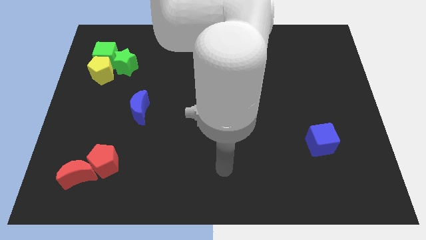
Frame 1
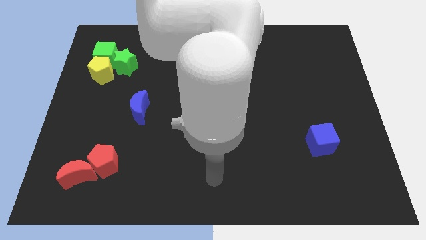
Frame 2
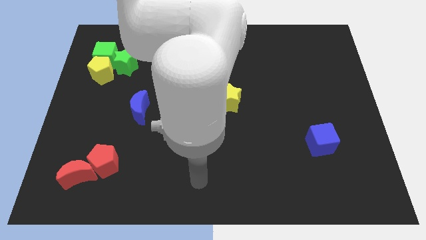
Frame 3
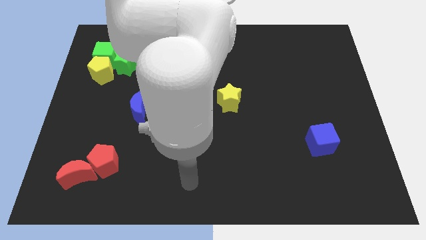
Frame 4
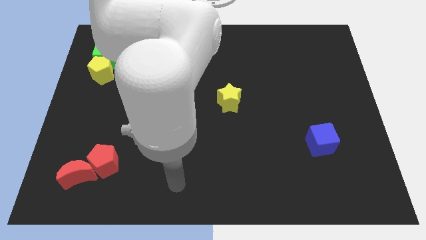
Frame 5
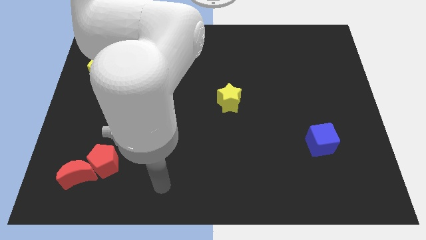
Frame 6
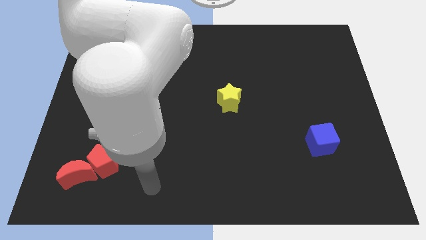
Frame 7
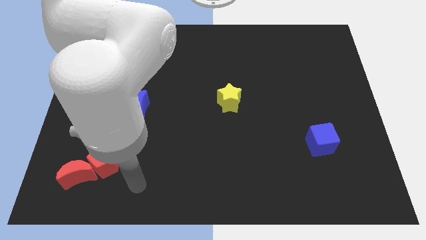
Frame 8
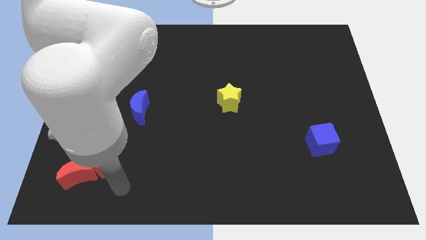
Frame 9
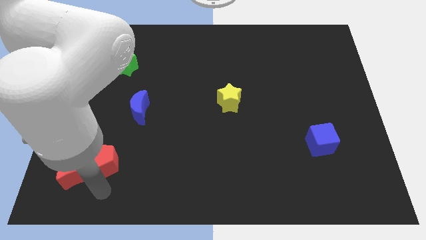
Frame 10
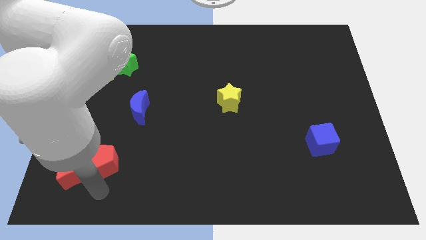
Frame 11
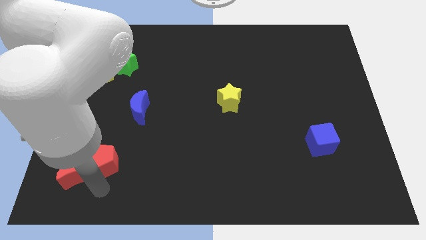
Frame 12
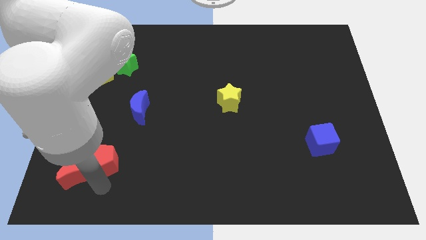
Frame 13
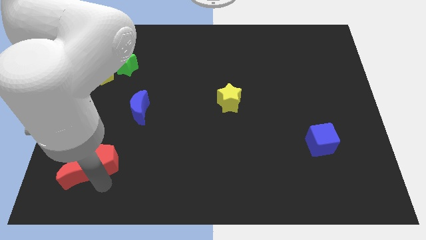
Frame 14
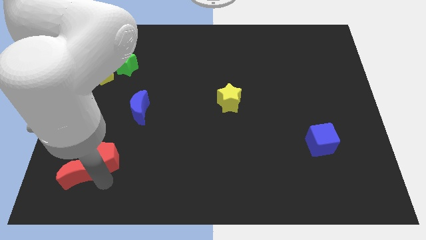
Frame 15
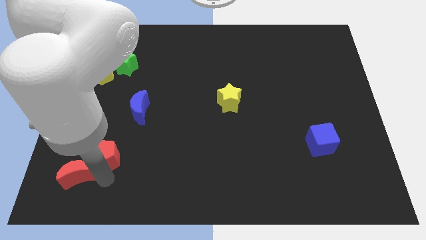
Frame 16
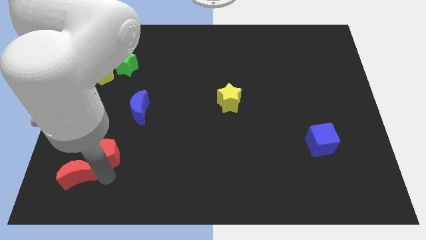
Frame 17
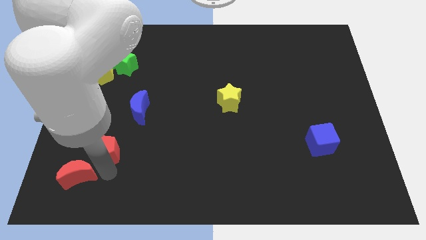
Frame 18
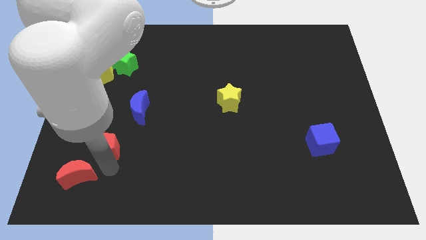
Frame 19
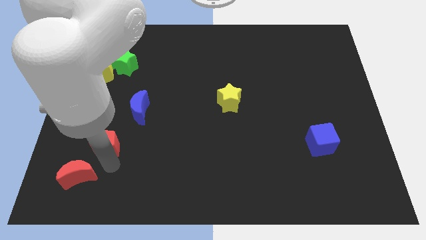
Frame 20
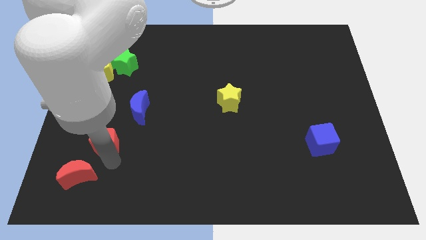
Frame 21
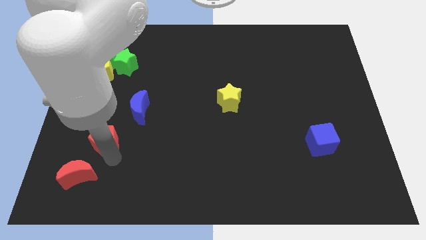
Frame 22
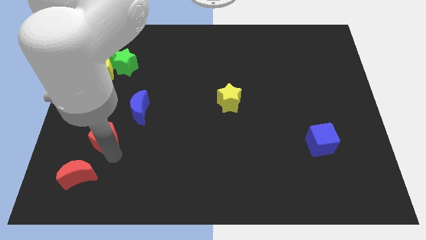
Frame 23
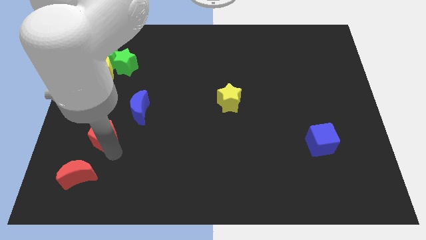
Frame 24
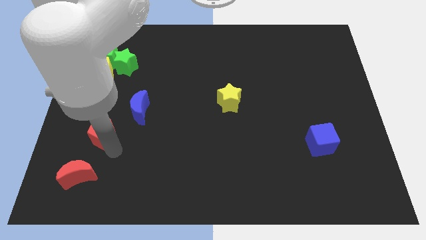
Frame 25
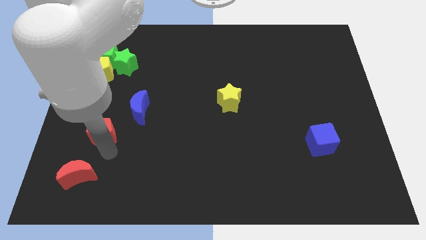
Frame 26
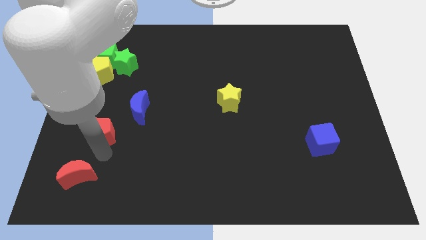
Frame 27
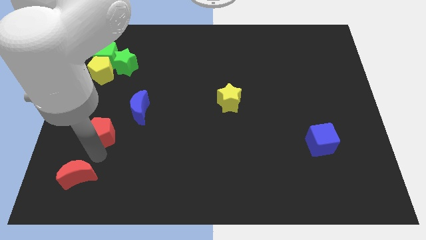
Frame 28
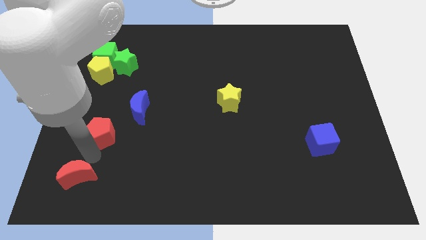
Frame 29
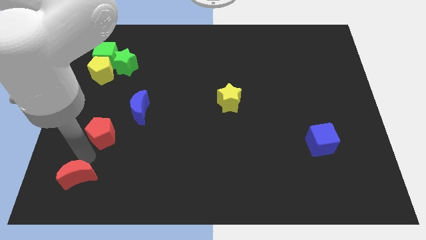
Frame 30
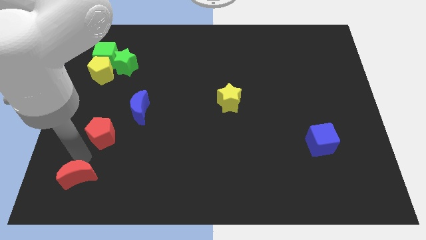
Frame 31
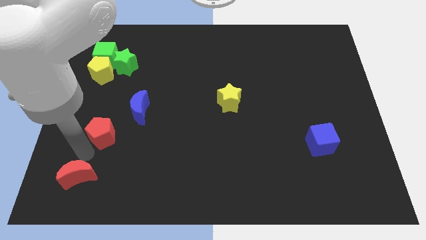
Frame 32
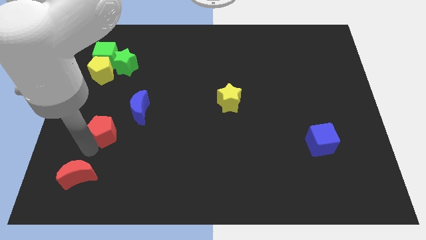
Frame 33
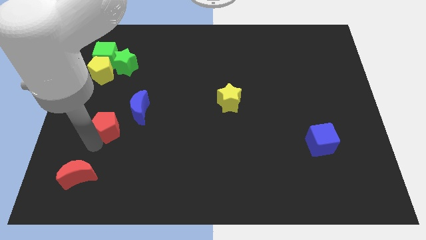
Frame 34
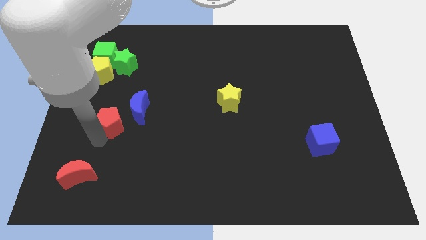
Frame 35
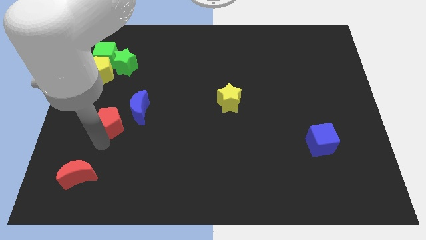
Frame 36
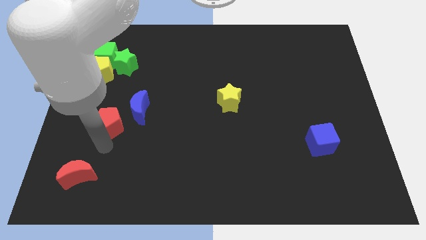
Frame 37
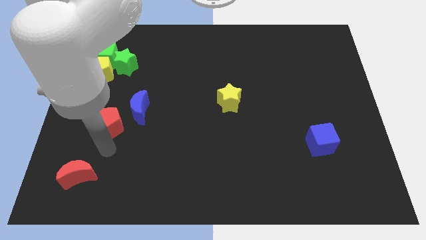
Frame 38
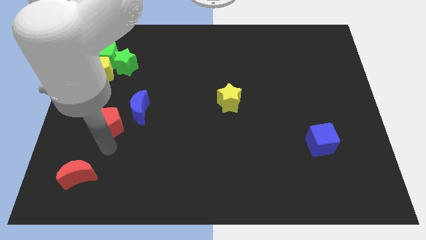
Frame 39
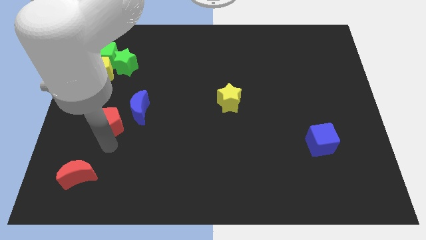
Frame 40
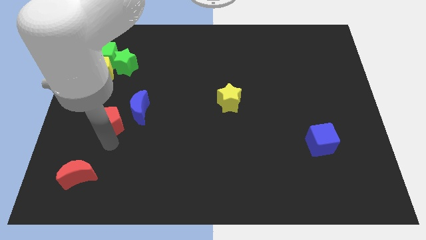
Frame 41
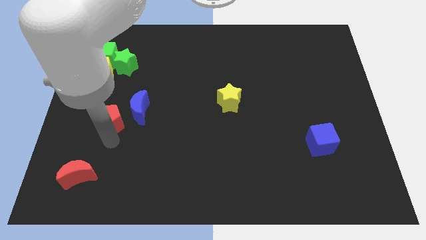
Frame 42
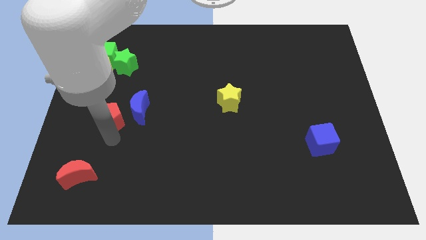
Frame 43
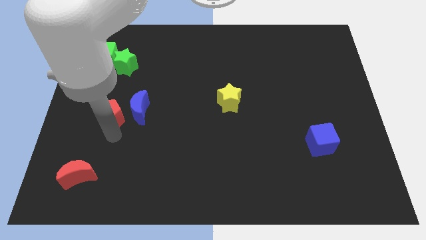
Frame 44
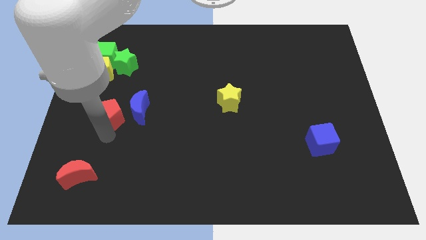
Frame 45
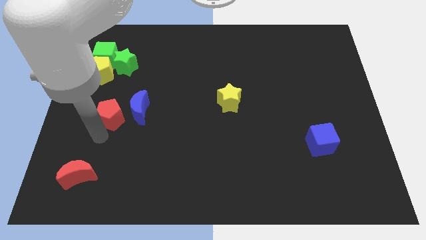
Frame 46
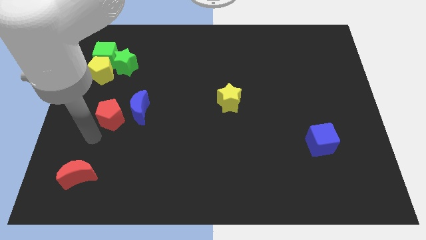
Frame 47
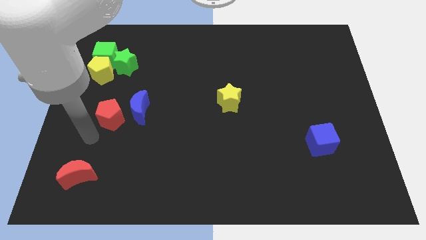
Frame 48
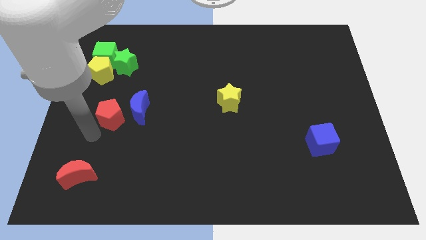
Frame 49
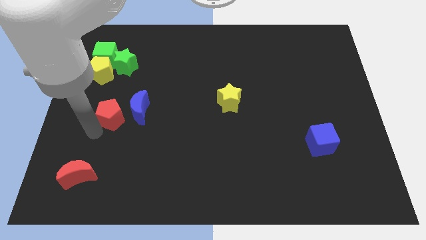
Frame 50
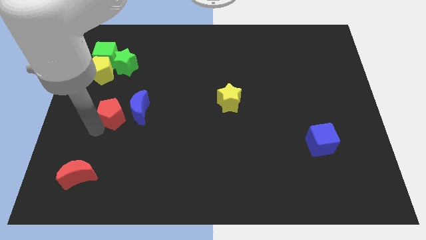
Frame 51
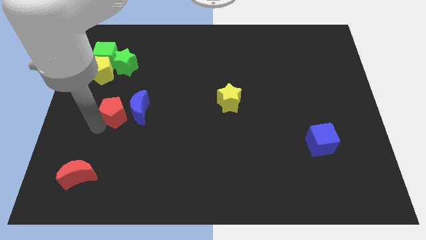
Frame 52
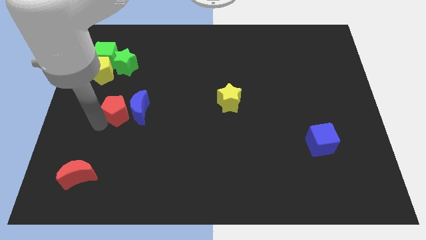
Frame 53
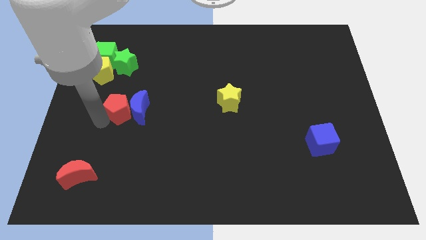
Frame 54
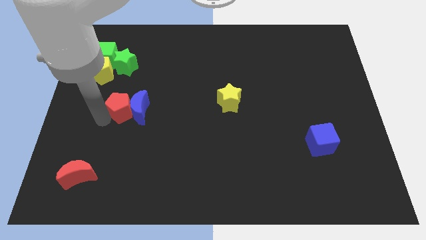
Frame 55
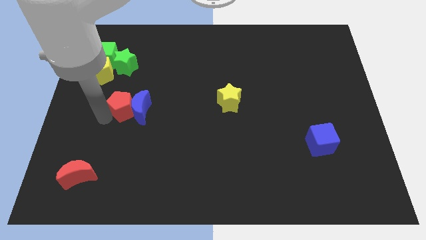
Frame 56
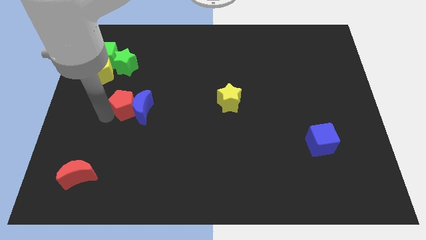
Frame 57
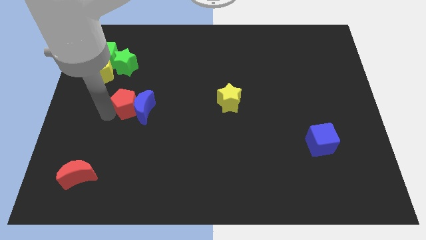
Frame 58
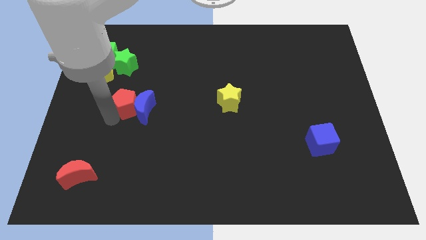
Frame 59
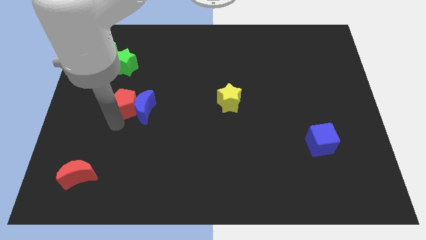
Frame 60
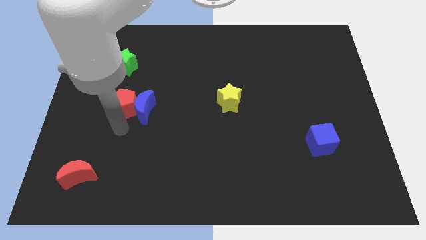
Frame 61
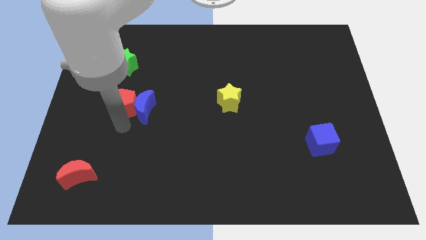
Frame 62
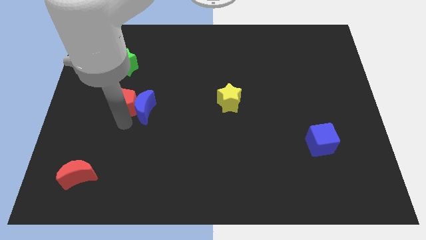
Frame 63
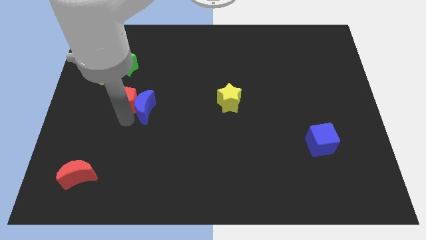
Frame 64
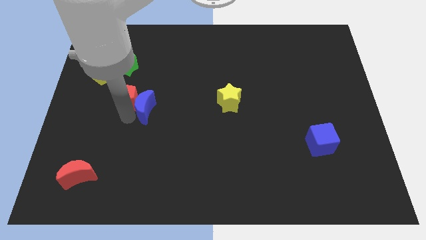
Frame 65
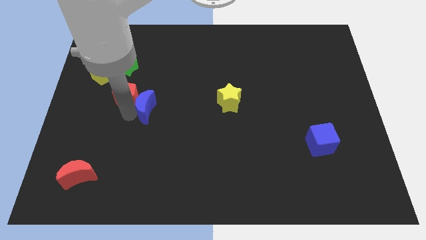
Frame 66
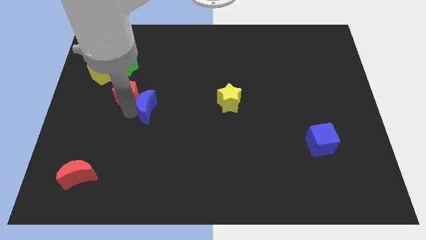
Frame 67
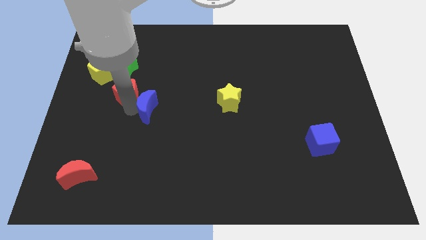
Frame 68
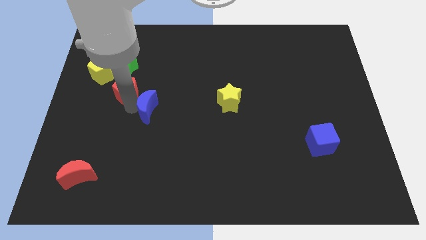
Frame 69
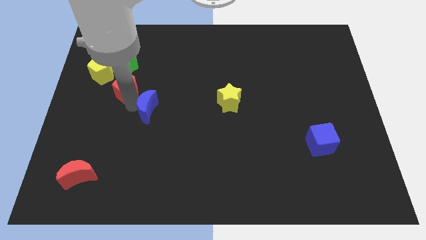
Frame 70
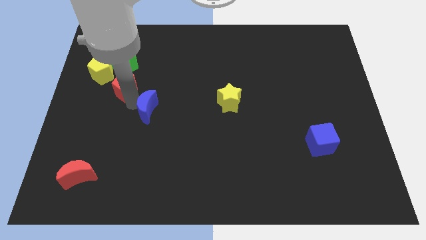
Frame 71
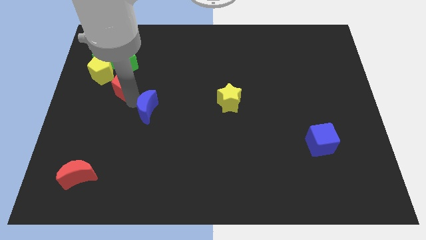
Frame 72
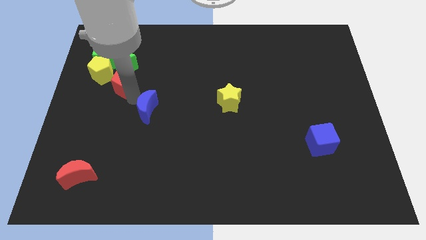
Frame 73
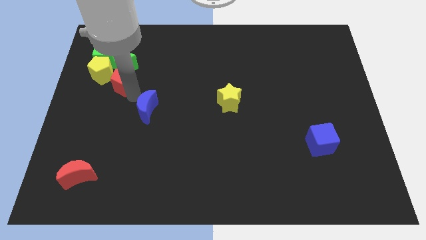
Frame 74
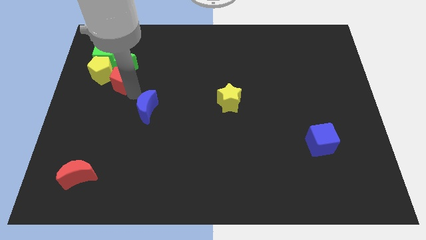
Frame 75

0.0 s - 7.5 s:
move the red pentagon towards the green star
